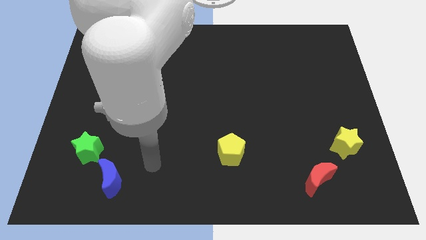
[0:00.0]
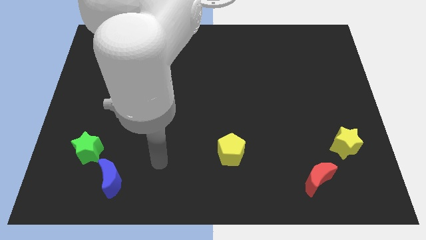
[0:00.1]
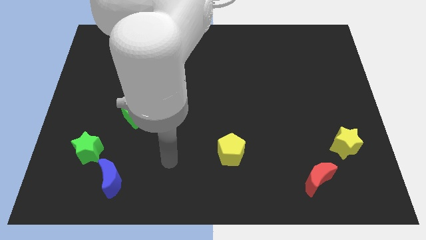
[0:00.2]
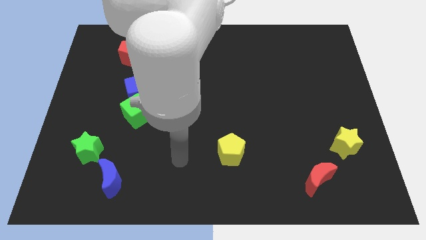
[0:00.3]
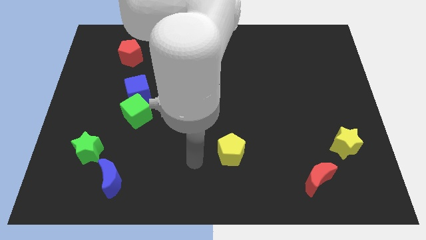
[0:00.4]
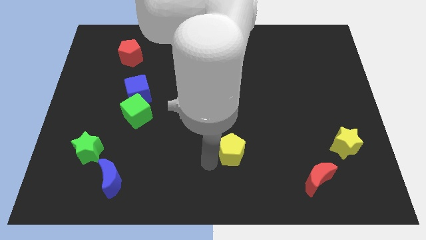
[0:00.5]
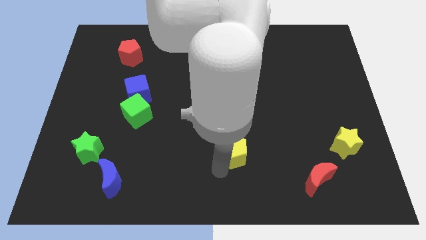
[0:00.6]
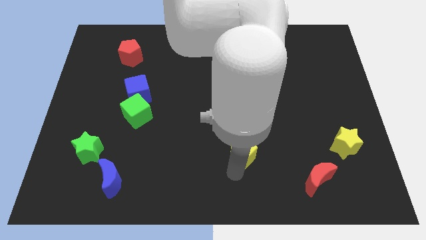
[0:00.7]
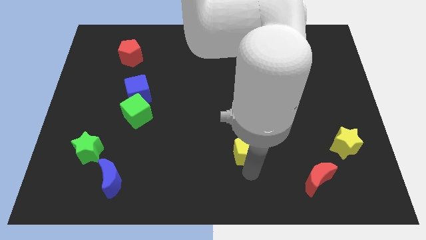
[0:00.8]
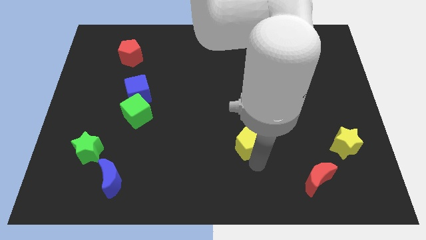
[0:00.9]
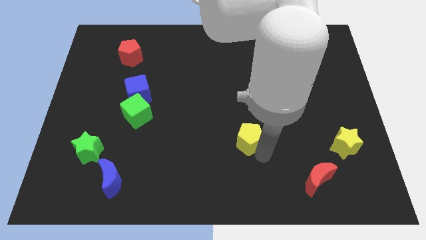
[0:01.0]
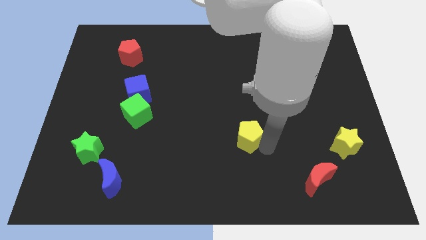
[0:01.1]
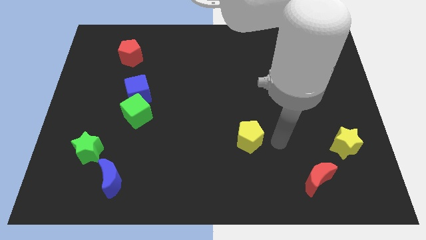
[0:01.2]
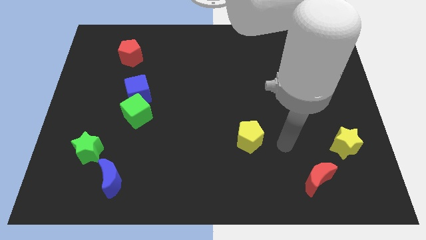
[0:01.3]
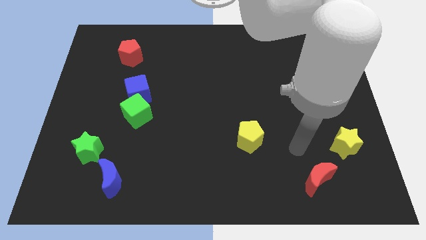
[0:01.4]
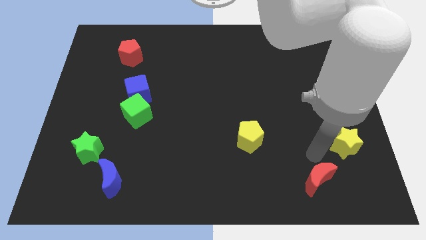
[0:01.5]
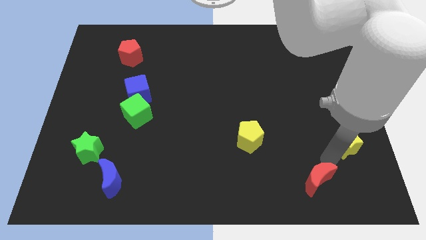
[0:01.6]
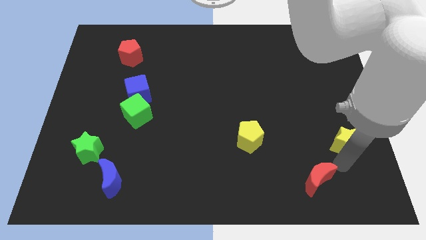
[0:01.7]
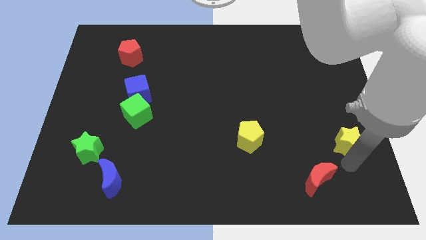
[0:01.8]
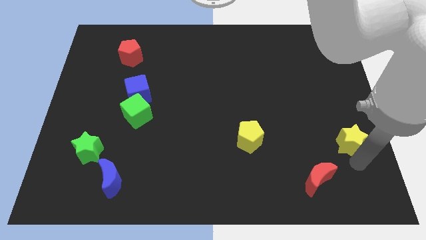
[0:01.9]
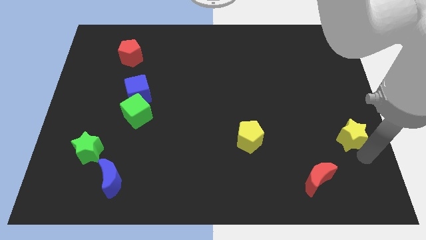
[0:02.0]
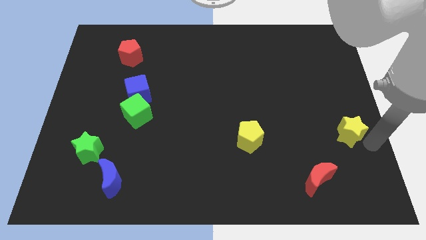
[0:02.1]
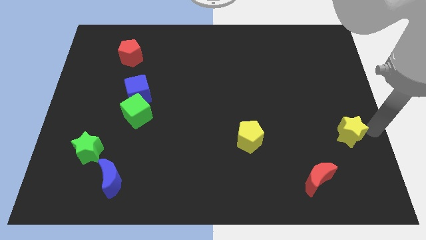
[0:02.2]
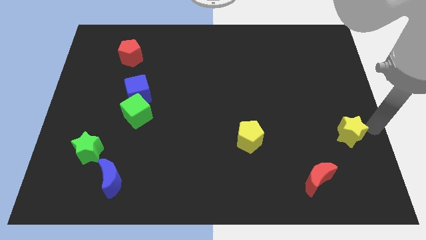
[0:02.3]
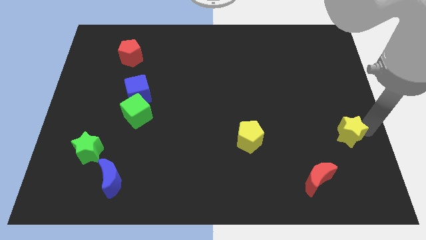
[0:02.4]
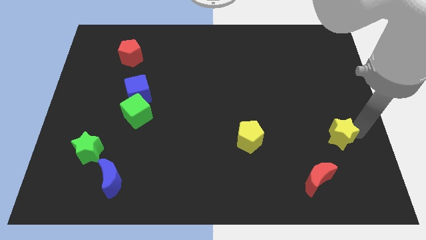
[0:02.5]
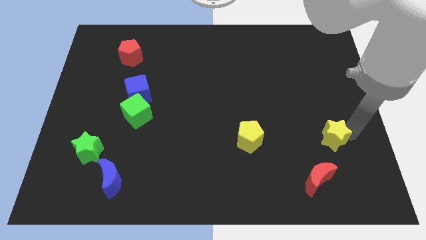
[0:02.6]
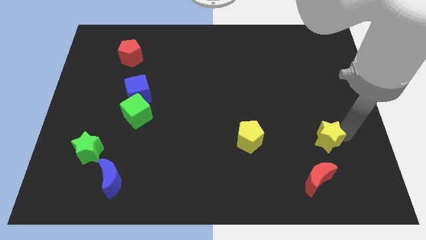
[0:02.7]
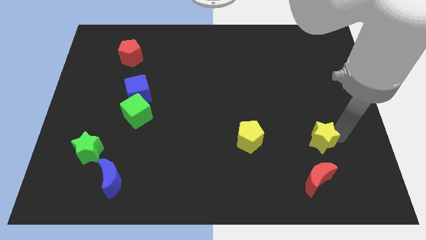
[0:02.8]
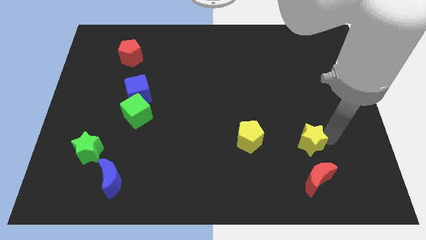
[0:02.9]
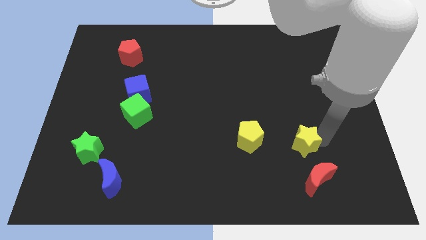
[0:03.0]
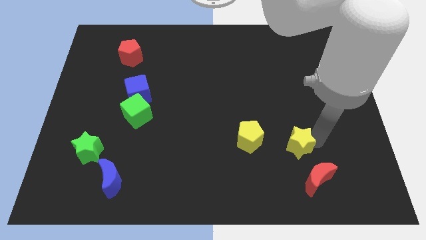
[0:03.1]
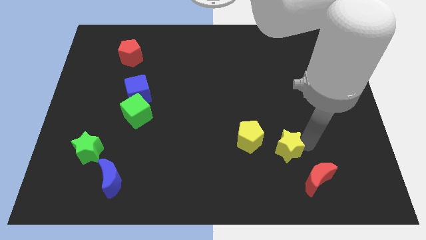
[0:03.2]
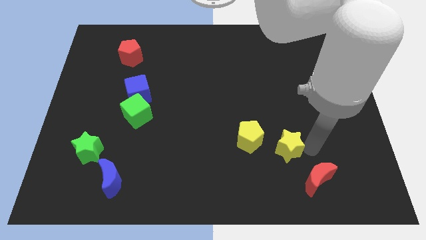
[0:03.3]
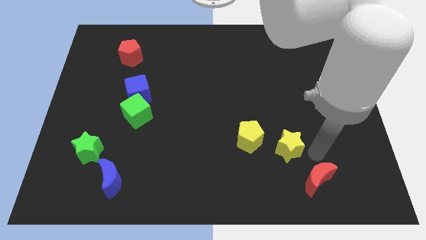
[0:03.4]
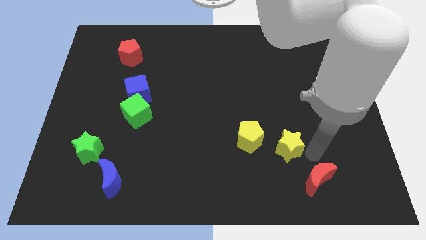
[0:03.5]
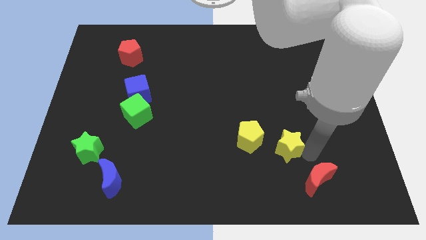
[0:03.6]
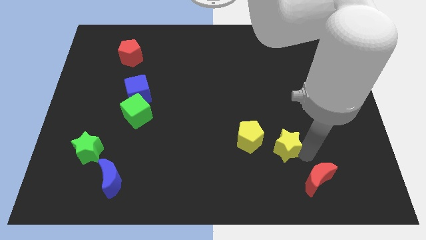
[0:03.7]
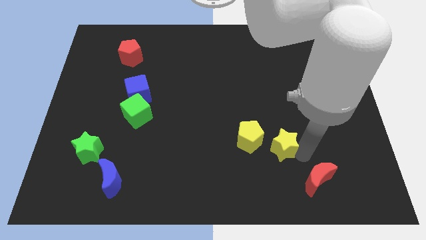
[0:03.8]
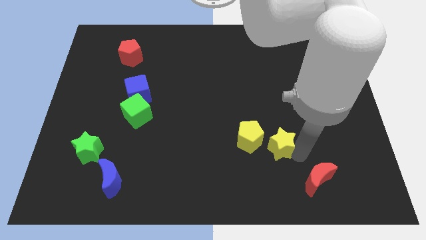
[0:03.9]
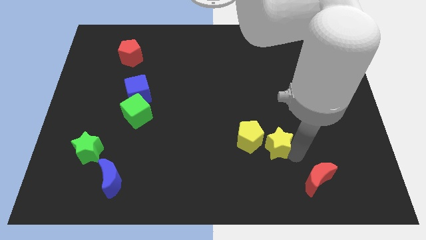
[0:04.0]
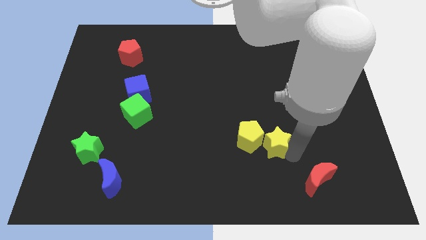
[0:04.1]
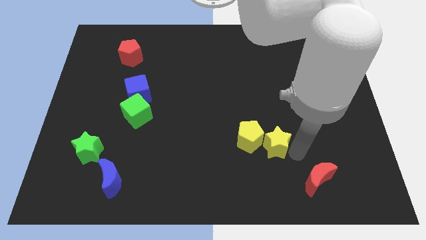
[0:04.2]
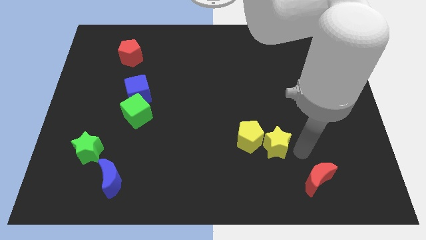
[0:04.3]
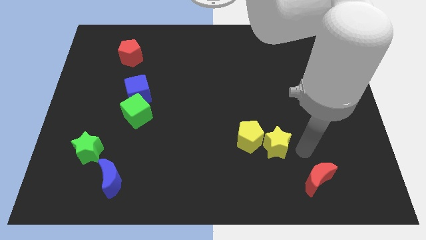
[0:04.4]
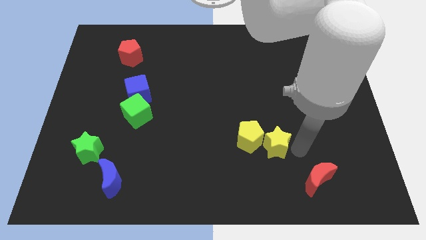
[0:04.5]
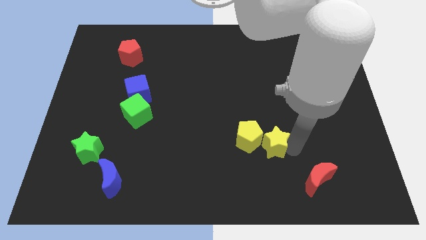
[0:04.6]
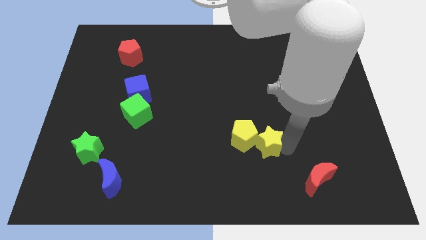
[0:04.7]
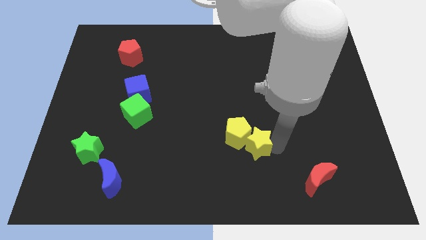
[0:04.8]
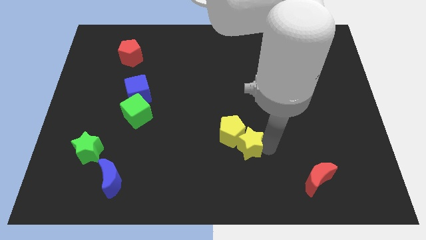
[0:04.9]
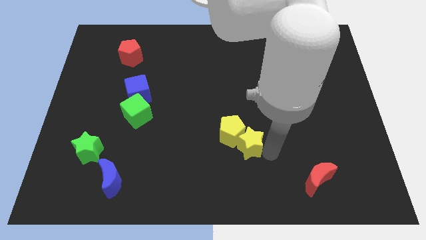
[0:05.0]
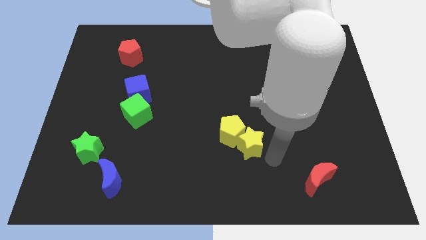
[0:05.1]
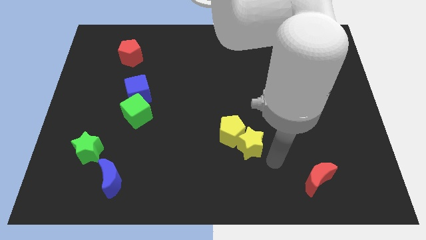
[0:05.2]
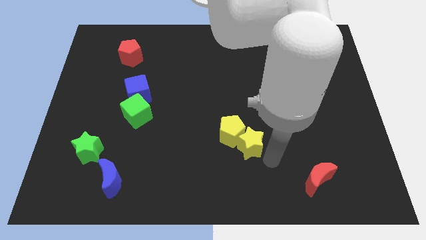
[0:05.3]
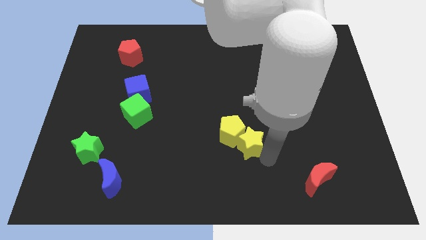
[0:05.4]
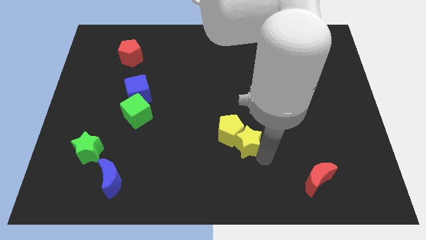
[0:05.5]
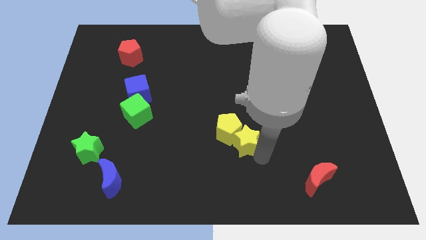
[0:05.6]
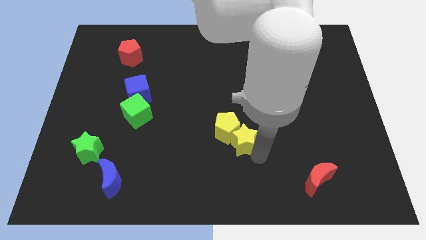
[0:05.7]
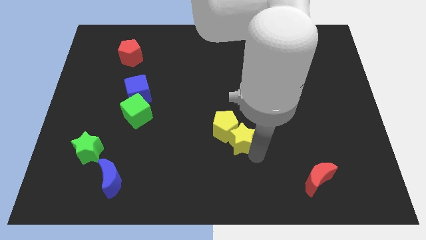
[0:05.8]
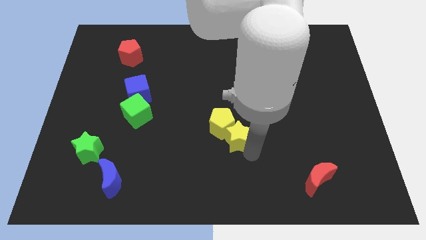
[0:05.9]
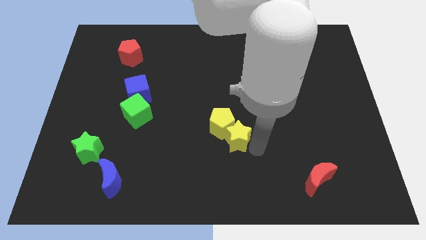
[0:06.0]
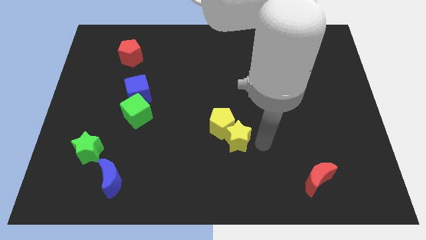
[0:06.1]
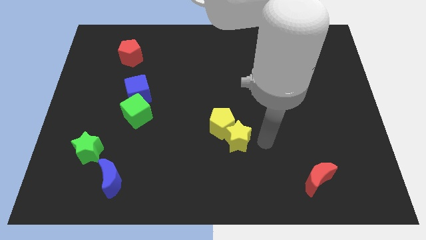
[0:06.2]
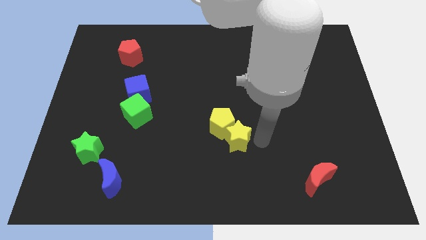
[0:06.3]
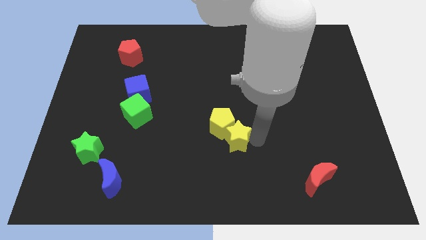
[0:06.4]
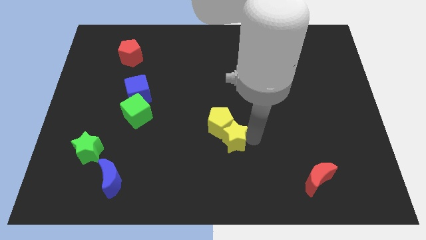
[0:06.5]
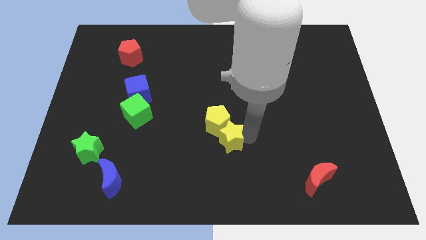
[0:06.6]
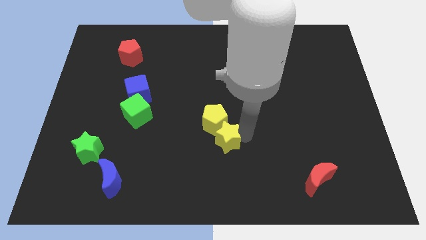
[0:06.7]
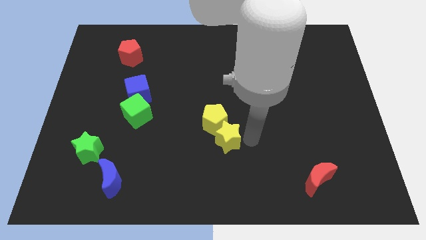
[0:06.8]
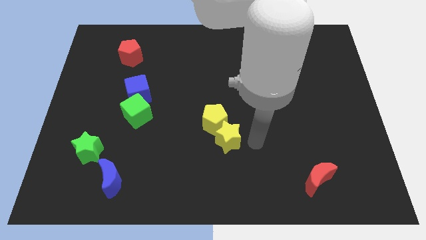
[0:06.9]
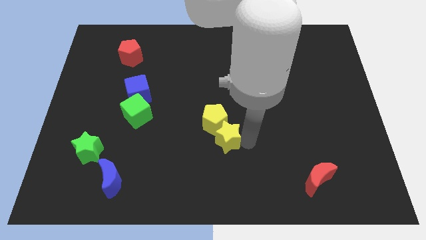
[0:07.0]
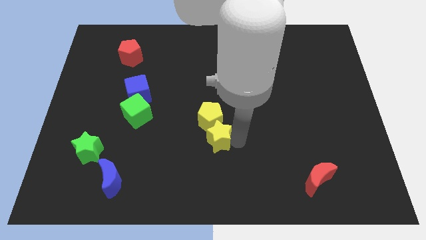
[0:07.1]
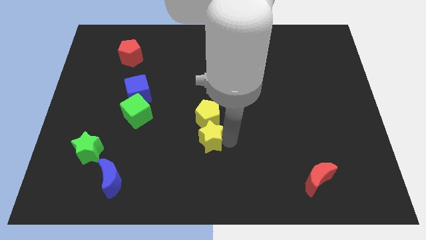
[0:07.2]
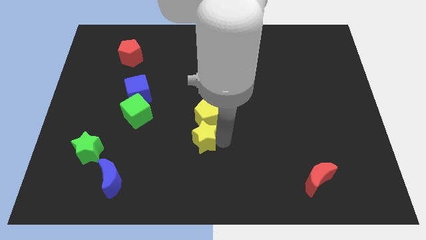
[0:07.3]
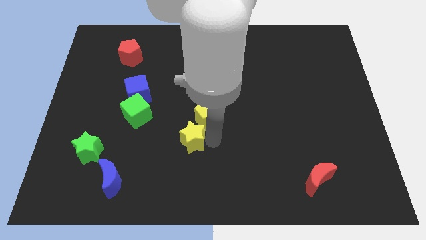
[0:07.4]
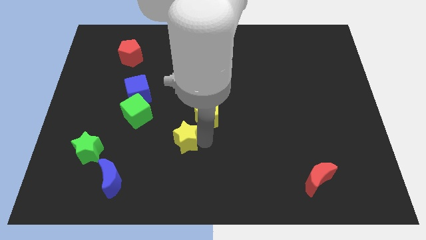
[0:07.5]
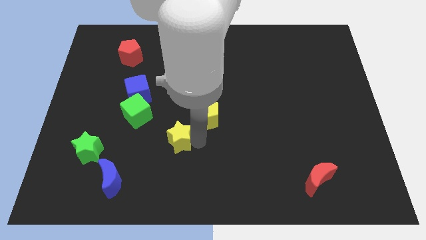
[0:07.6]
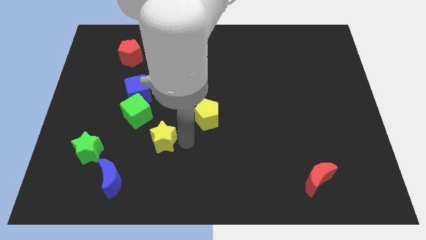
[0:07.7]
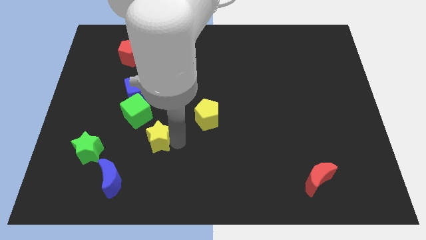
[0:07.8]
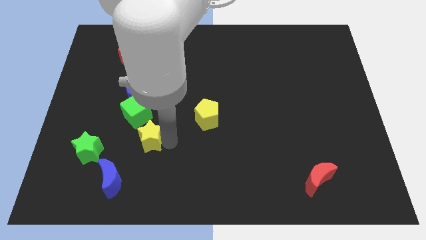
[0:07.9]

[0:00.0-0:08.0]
slide the yellow star to the bottom of the blue cube
